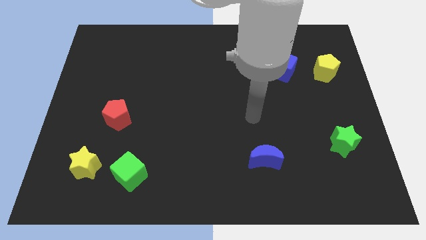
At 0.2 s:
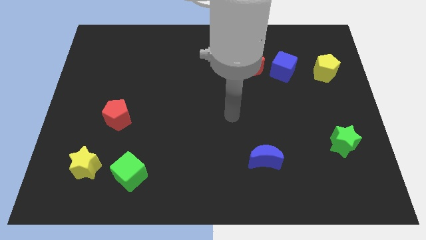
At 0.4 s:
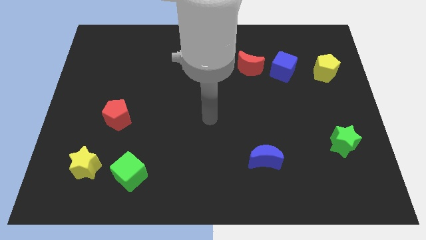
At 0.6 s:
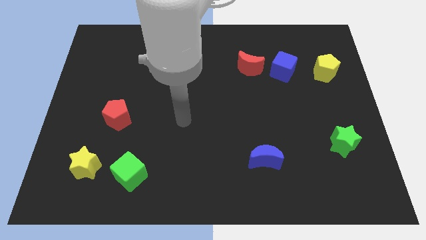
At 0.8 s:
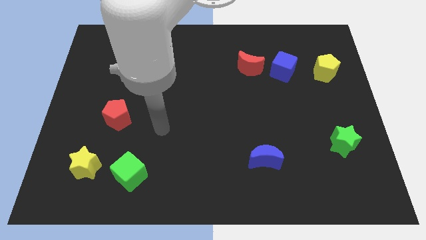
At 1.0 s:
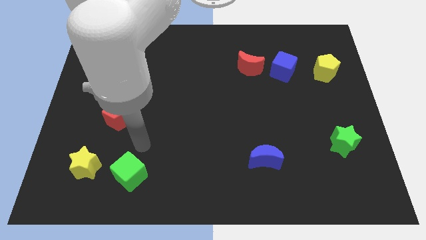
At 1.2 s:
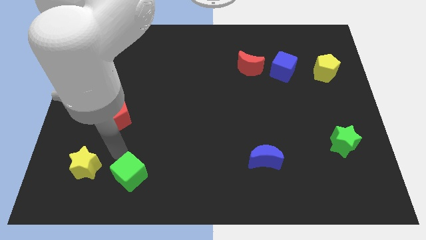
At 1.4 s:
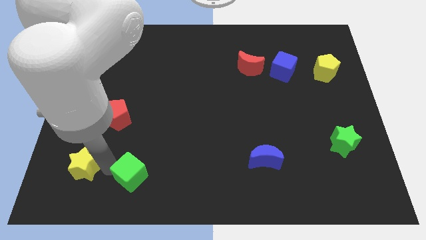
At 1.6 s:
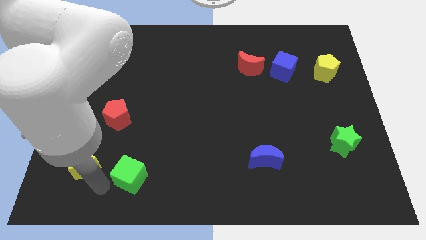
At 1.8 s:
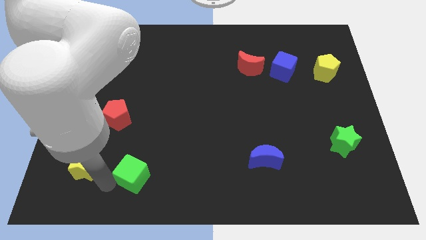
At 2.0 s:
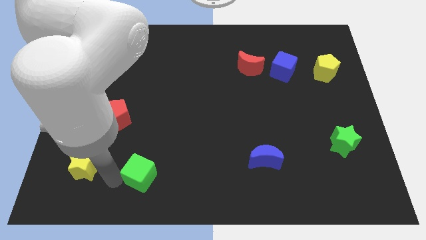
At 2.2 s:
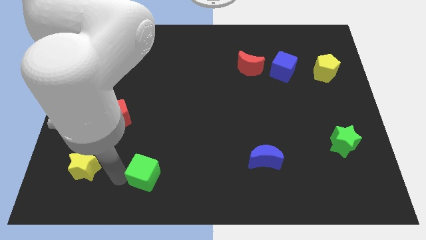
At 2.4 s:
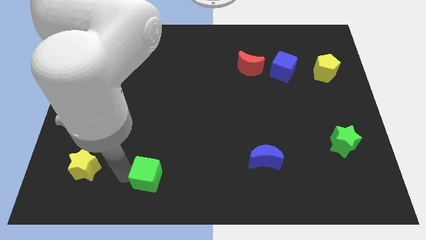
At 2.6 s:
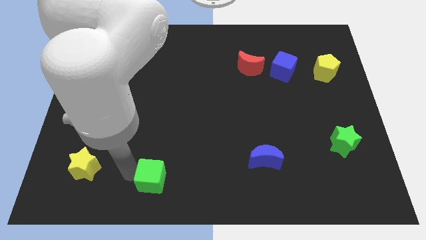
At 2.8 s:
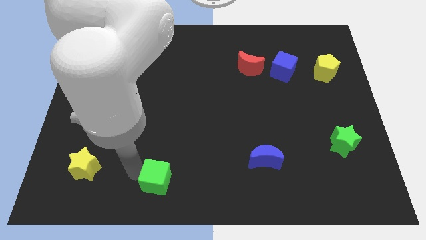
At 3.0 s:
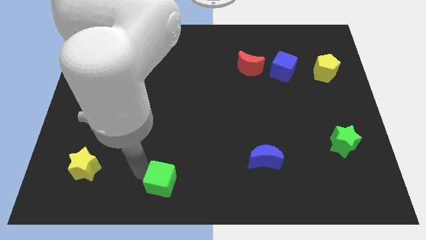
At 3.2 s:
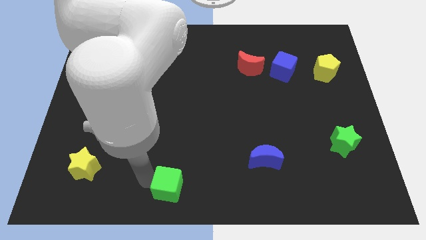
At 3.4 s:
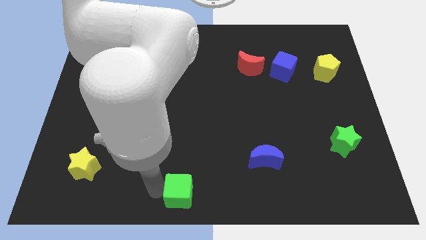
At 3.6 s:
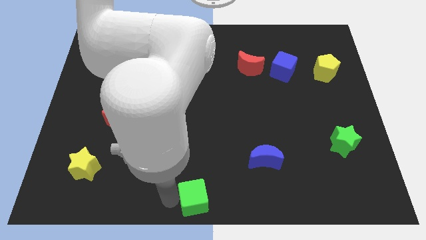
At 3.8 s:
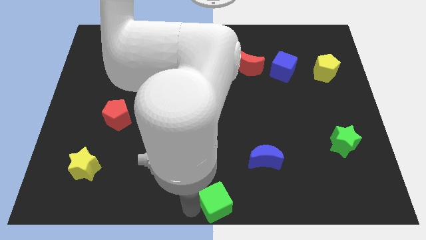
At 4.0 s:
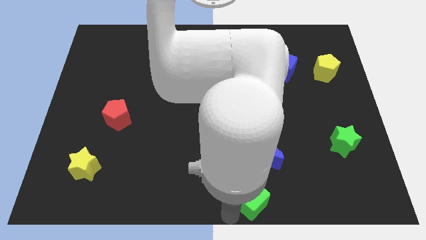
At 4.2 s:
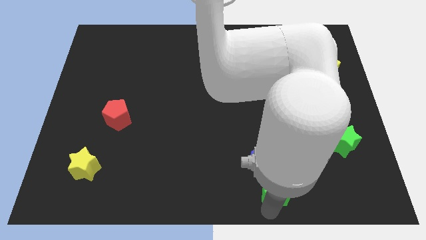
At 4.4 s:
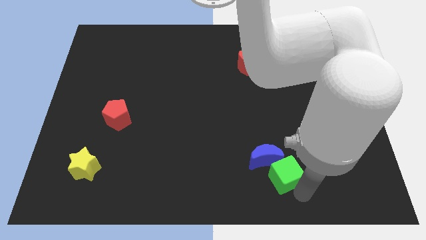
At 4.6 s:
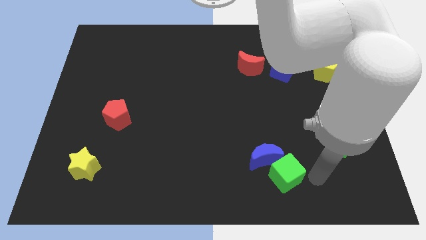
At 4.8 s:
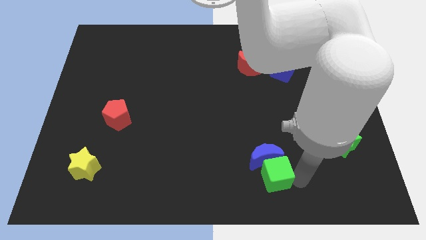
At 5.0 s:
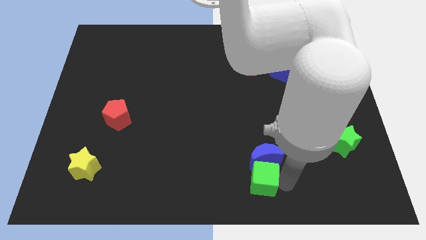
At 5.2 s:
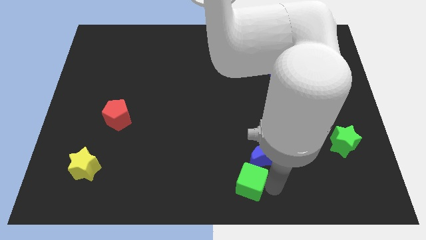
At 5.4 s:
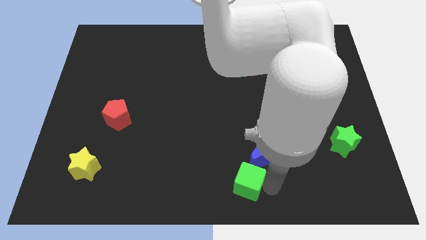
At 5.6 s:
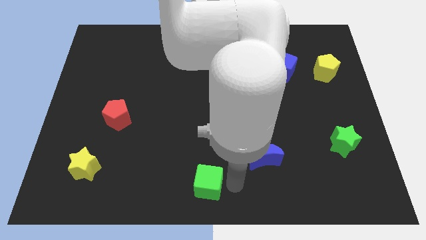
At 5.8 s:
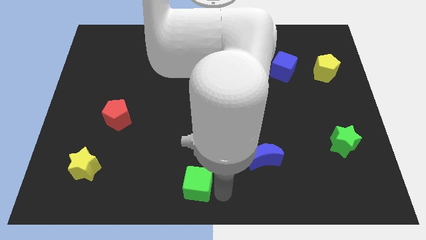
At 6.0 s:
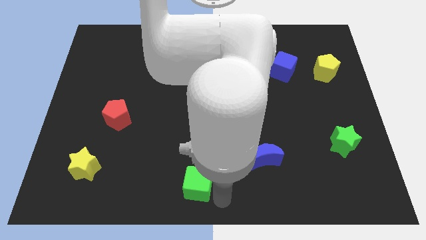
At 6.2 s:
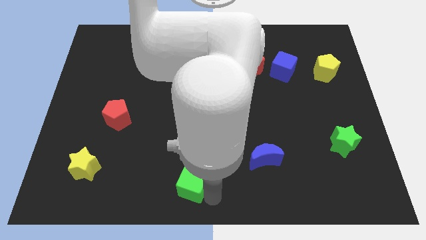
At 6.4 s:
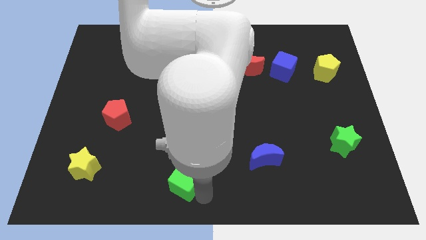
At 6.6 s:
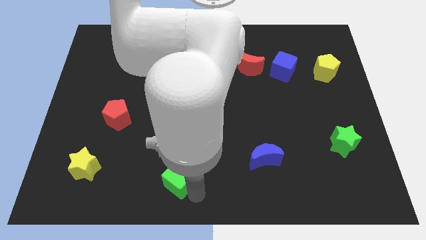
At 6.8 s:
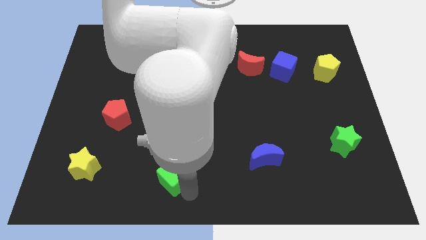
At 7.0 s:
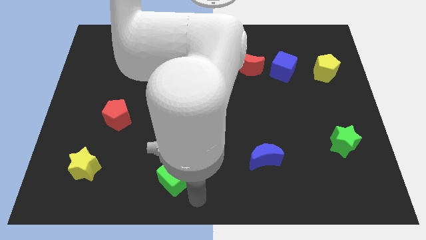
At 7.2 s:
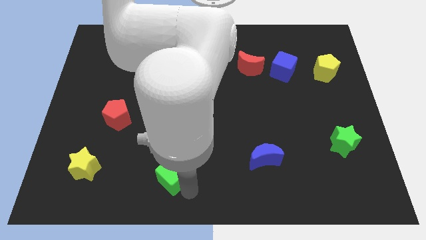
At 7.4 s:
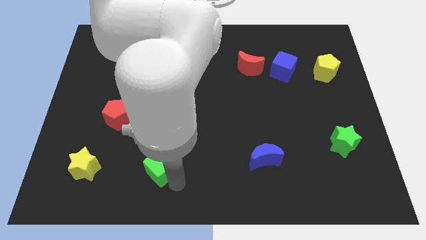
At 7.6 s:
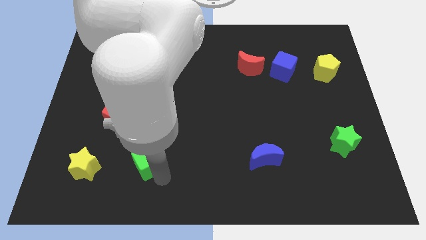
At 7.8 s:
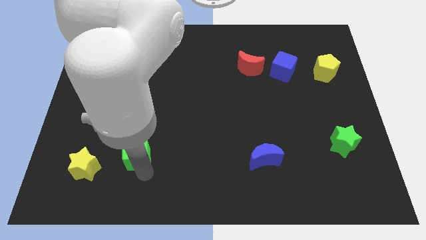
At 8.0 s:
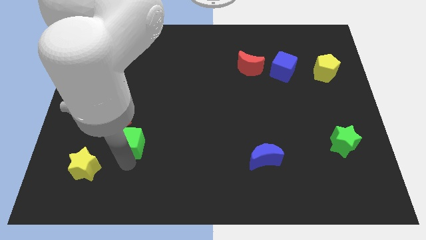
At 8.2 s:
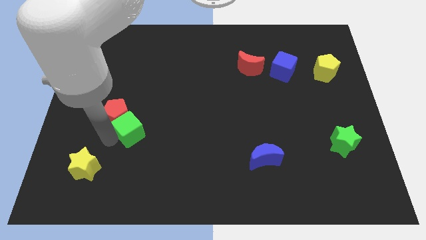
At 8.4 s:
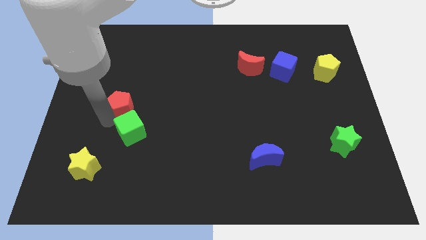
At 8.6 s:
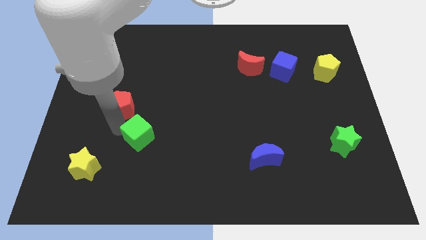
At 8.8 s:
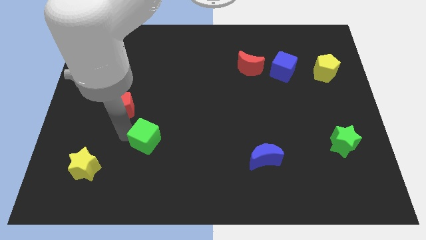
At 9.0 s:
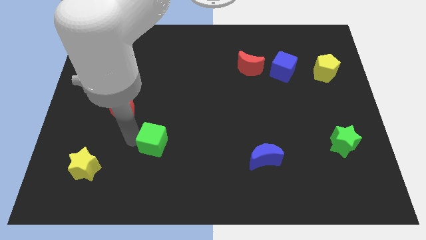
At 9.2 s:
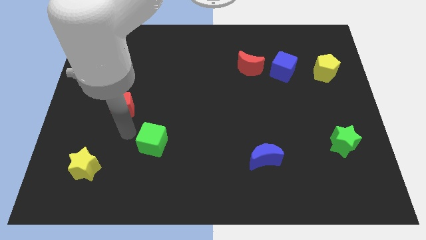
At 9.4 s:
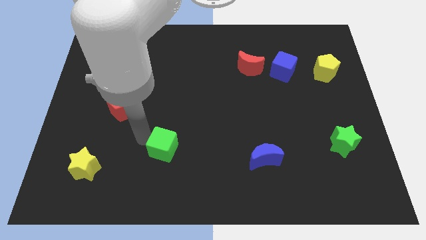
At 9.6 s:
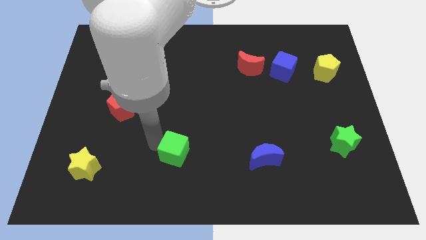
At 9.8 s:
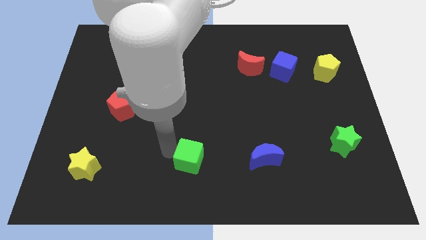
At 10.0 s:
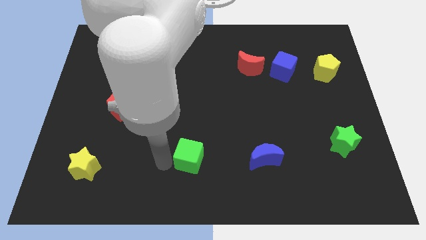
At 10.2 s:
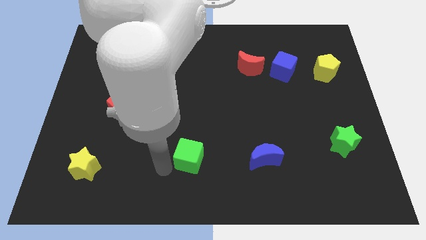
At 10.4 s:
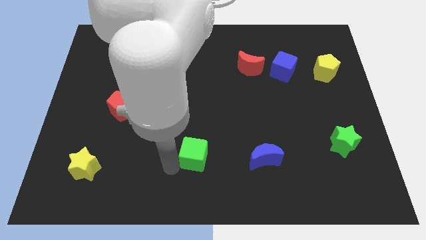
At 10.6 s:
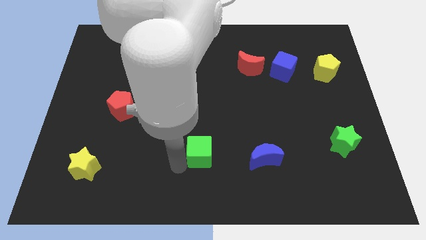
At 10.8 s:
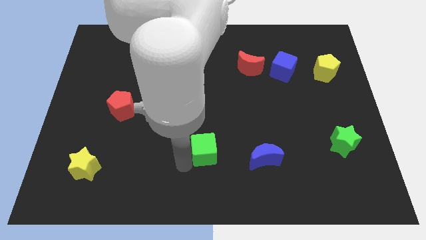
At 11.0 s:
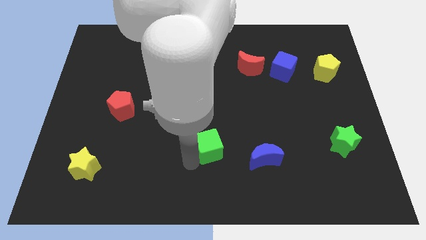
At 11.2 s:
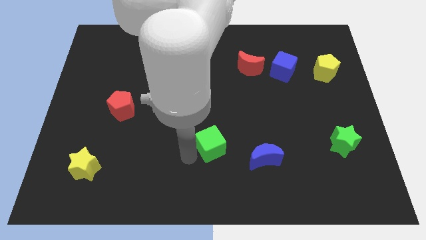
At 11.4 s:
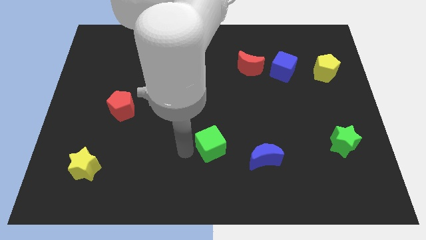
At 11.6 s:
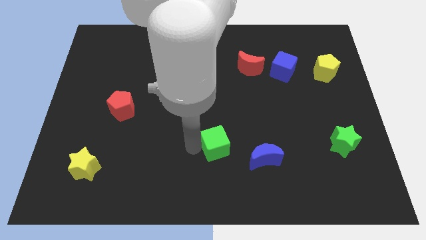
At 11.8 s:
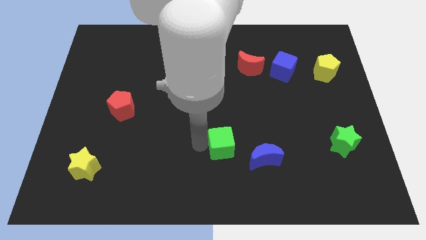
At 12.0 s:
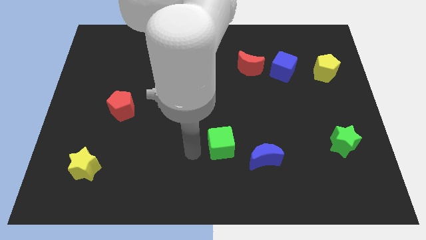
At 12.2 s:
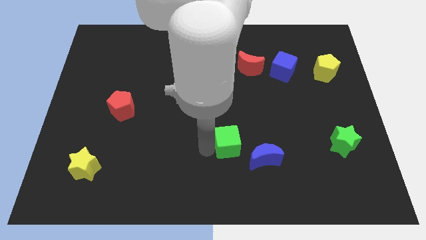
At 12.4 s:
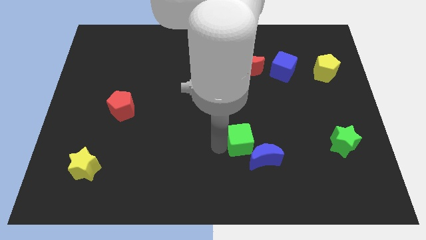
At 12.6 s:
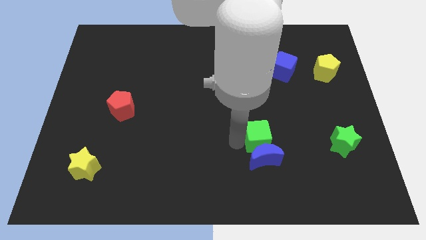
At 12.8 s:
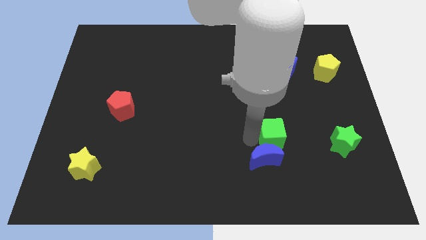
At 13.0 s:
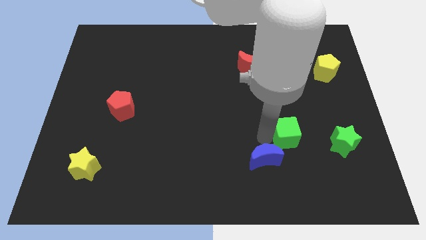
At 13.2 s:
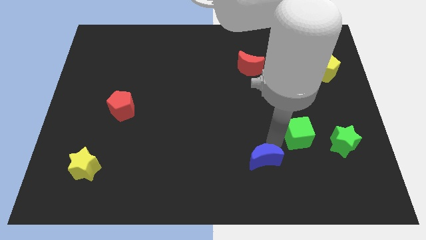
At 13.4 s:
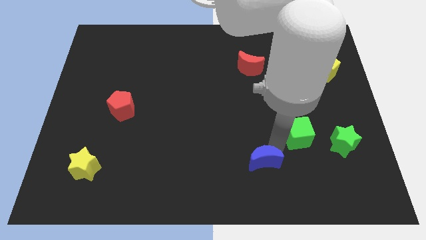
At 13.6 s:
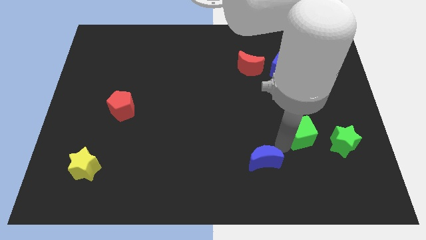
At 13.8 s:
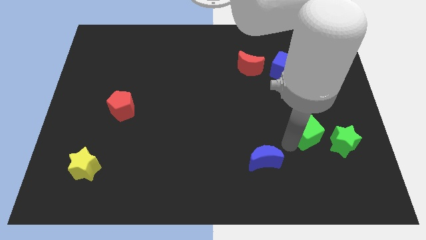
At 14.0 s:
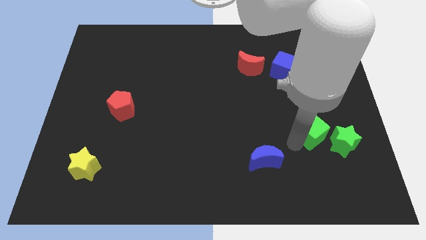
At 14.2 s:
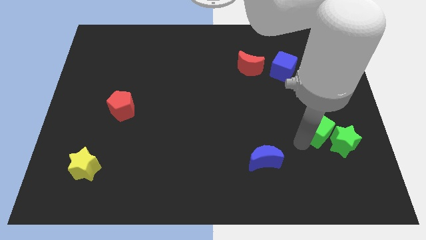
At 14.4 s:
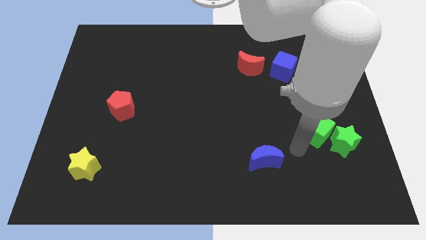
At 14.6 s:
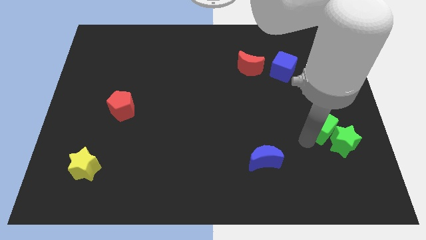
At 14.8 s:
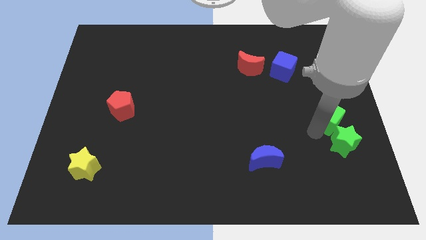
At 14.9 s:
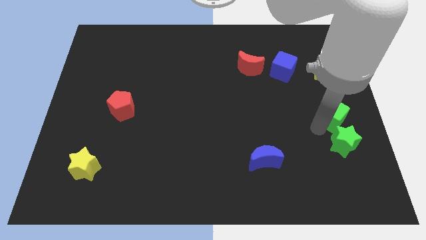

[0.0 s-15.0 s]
push the green cube to the right side
